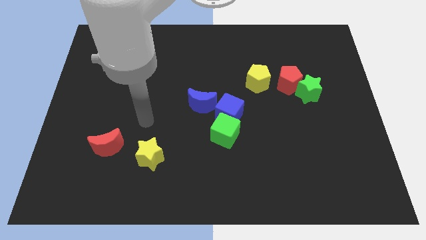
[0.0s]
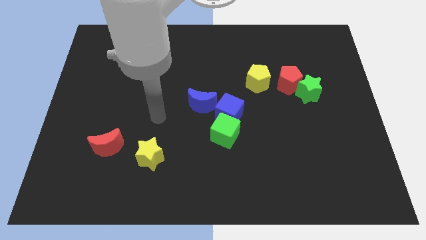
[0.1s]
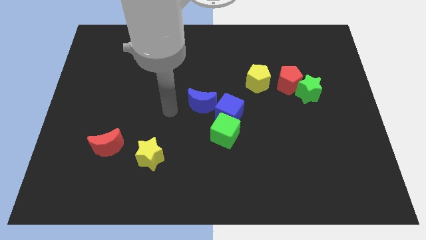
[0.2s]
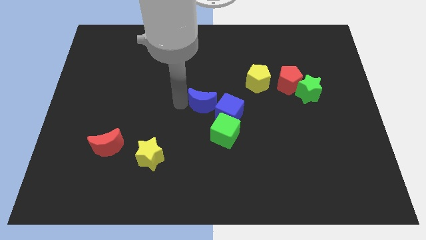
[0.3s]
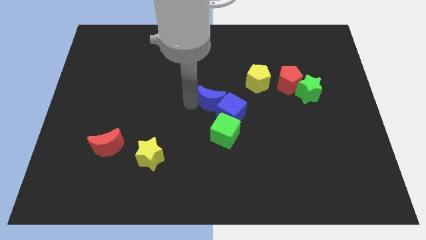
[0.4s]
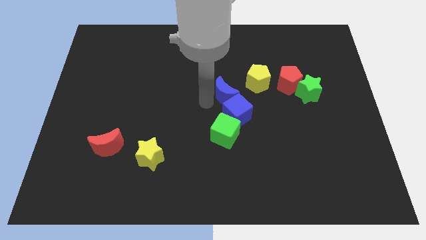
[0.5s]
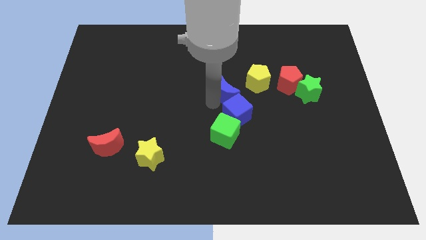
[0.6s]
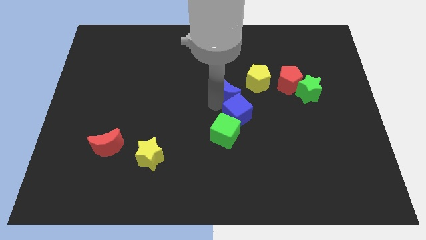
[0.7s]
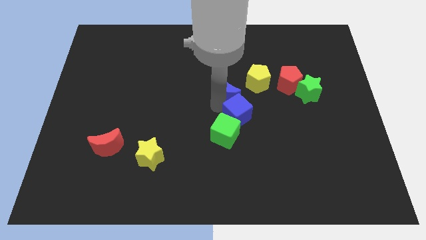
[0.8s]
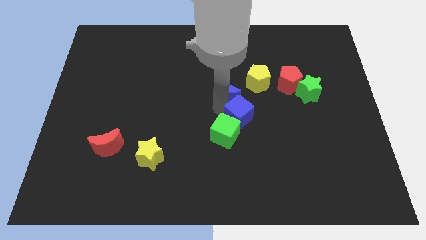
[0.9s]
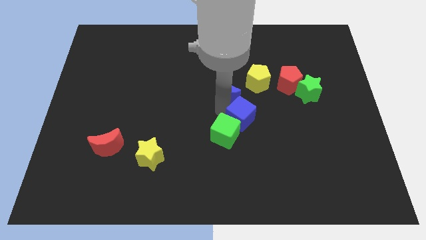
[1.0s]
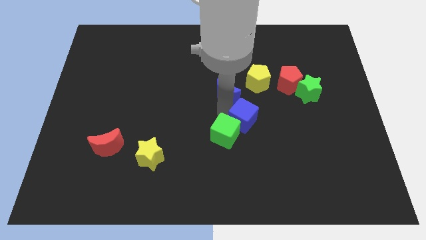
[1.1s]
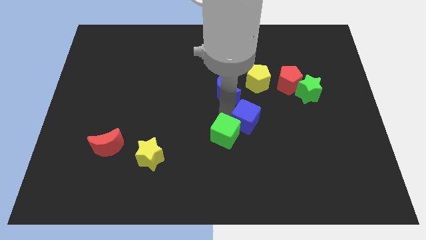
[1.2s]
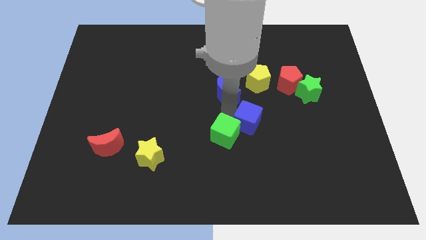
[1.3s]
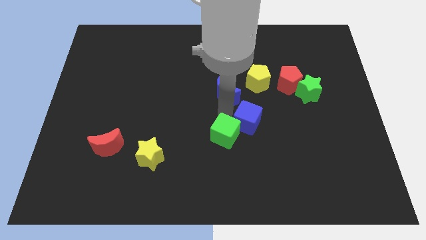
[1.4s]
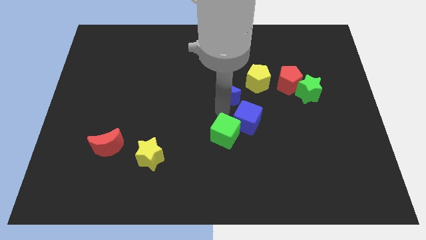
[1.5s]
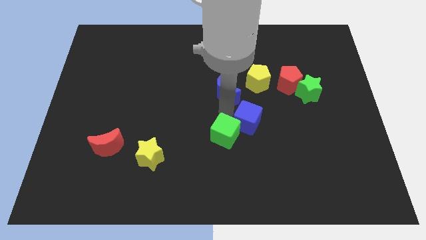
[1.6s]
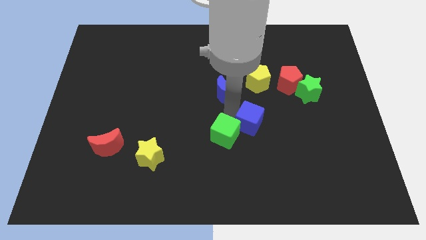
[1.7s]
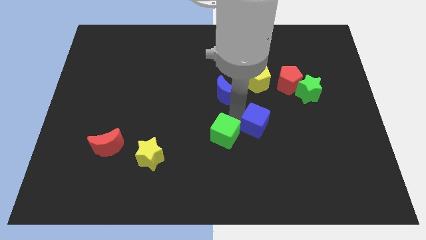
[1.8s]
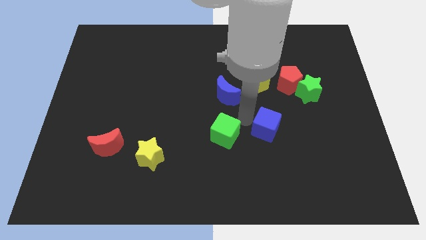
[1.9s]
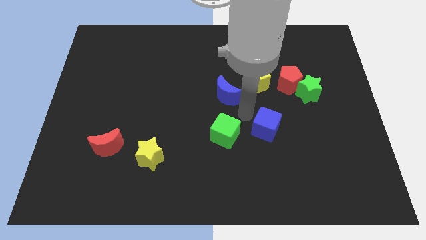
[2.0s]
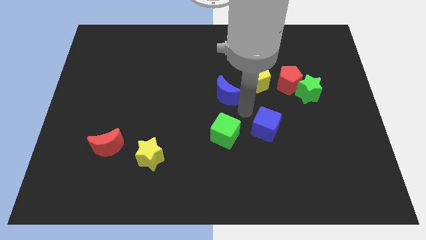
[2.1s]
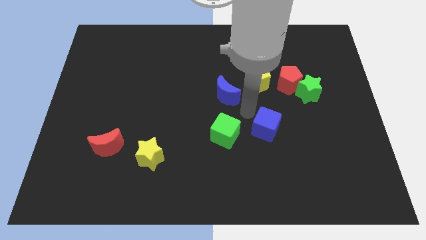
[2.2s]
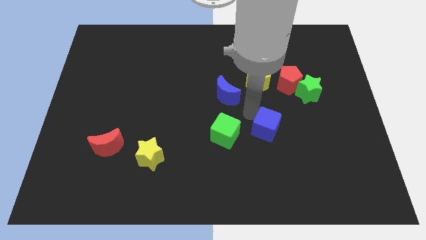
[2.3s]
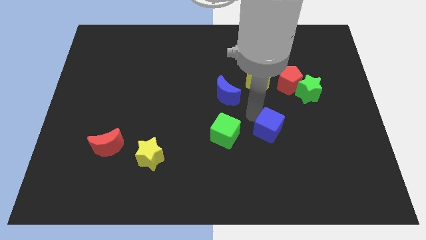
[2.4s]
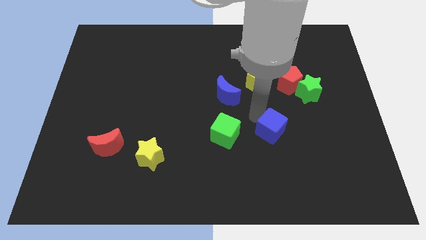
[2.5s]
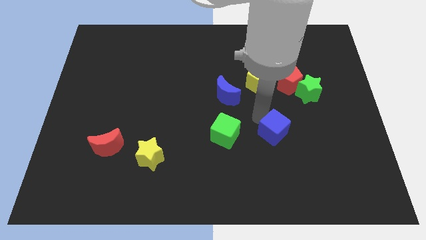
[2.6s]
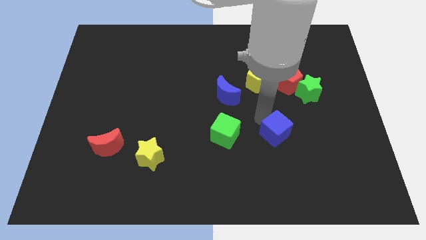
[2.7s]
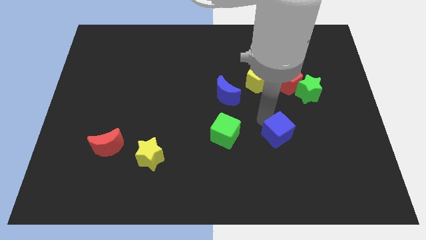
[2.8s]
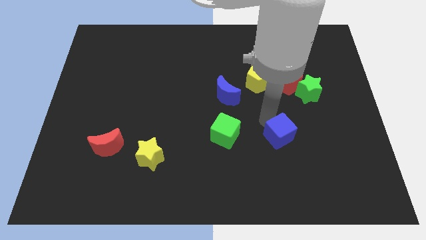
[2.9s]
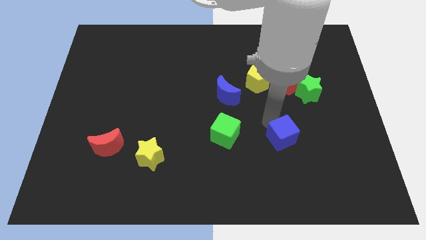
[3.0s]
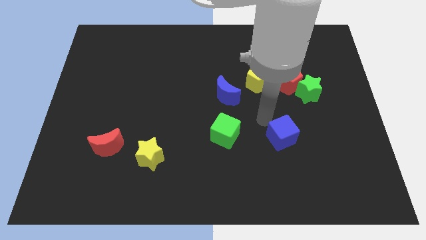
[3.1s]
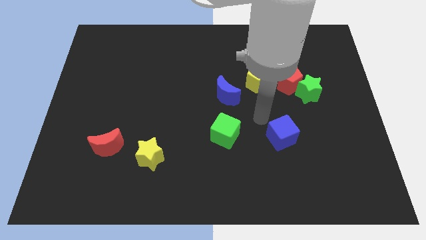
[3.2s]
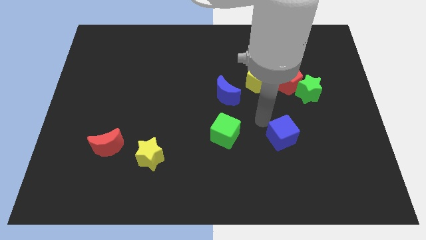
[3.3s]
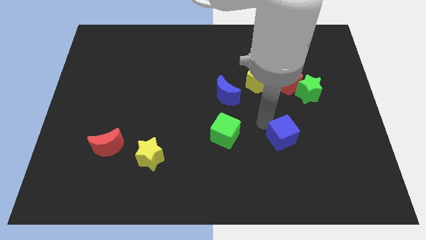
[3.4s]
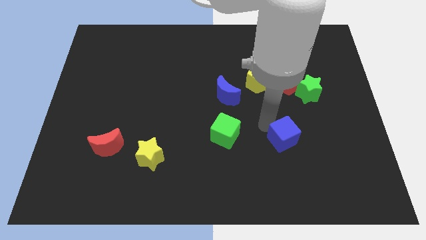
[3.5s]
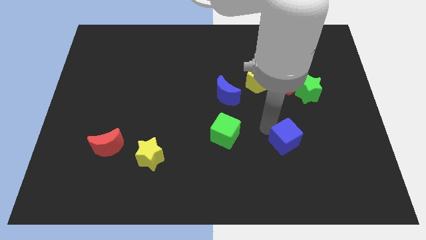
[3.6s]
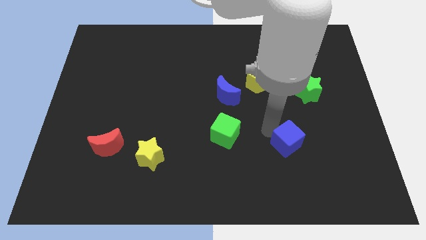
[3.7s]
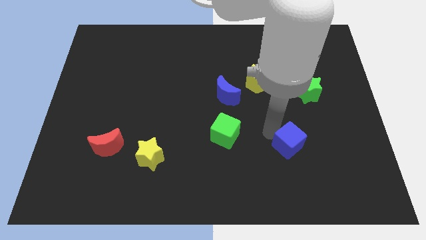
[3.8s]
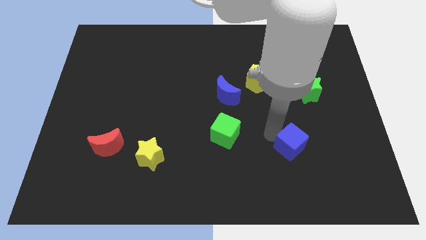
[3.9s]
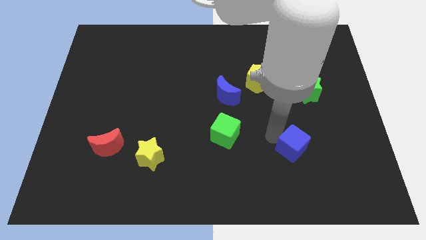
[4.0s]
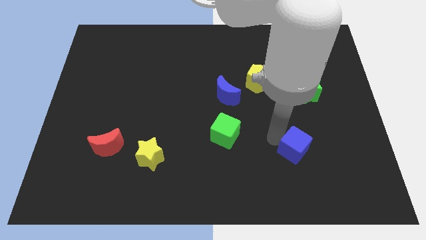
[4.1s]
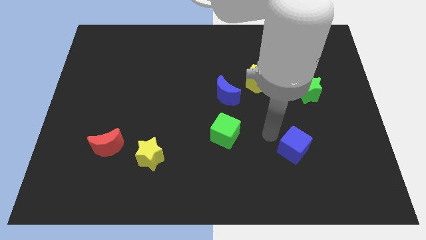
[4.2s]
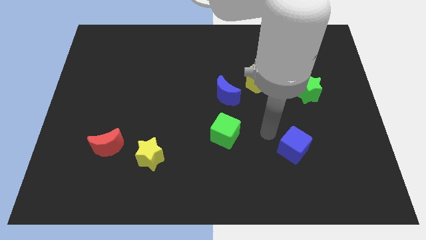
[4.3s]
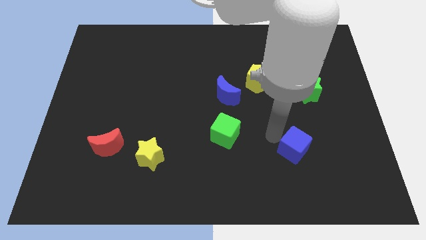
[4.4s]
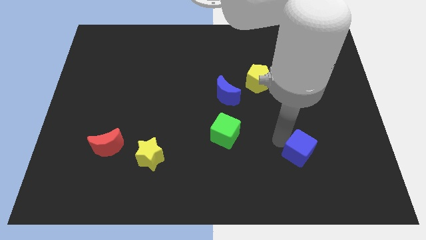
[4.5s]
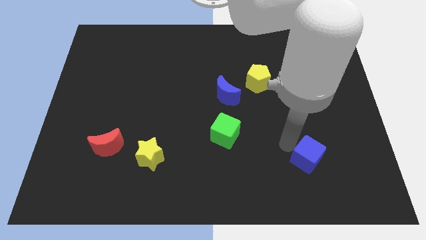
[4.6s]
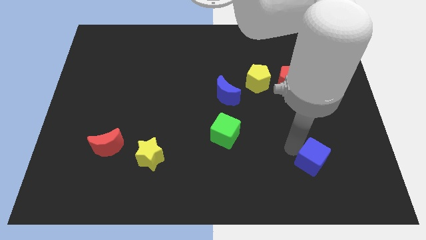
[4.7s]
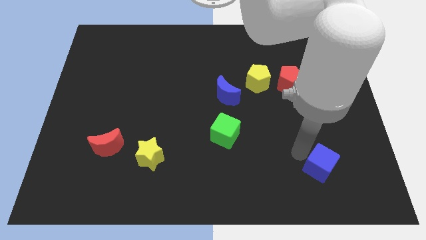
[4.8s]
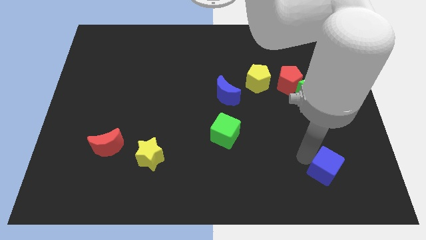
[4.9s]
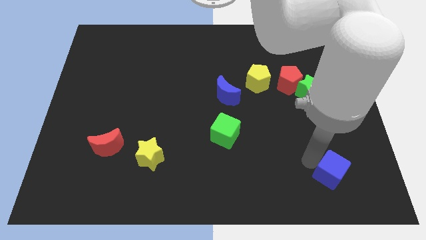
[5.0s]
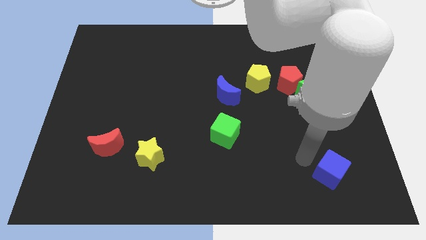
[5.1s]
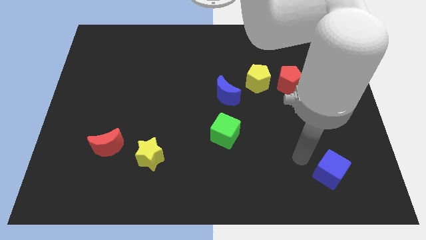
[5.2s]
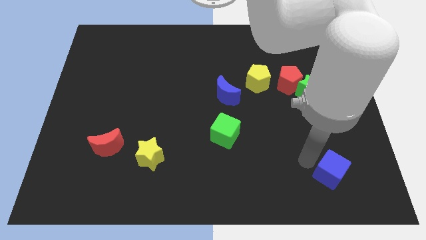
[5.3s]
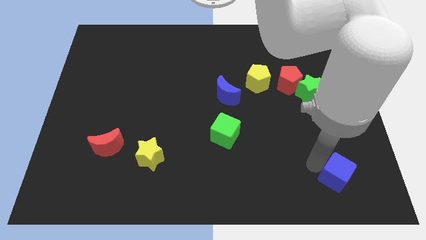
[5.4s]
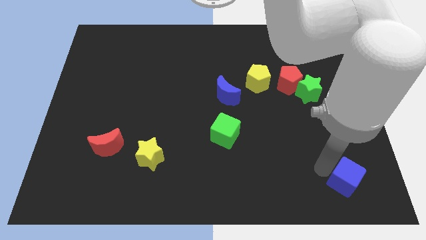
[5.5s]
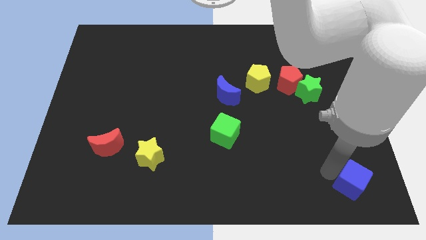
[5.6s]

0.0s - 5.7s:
slide the blue cube to the bottom right of the board

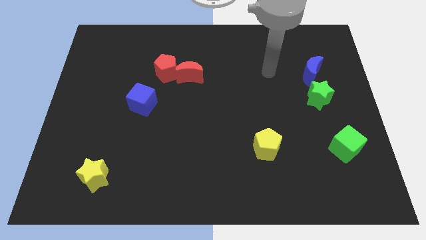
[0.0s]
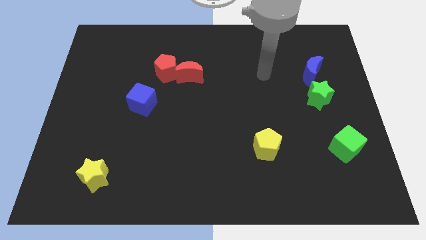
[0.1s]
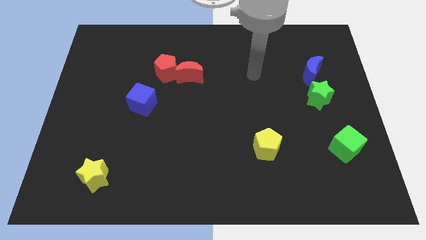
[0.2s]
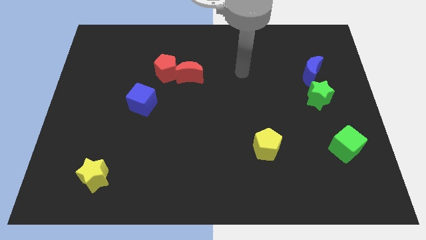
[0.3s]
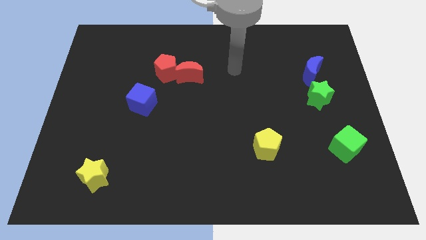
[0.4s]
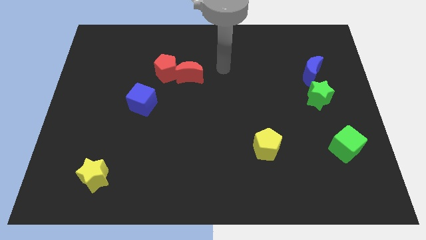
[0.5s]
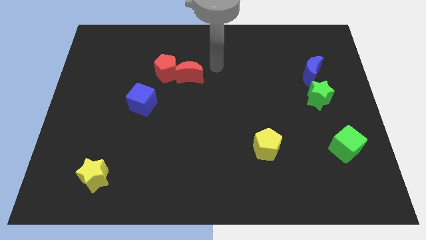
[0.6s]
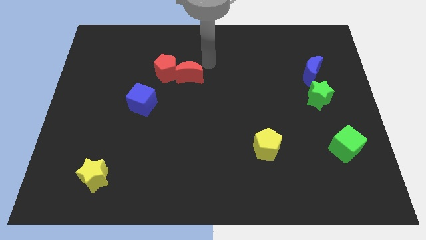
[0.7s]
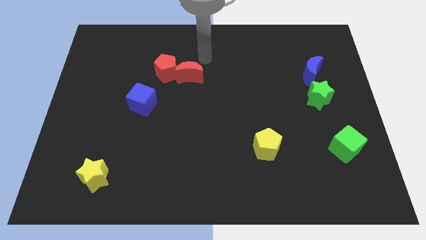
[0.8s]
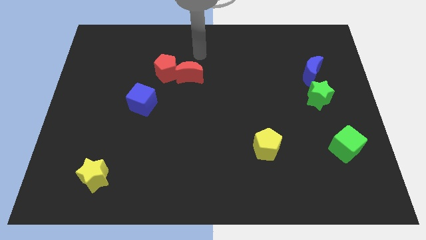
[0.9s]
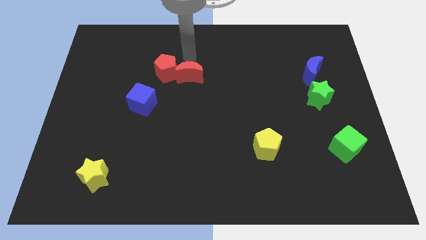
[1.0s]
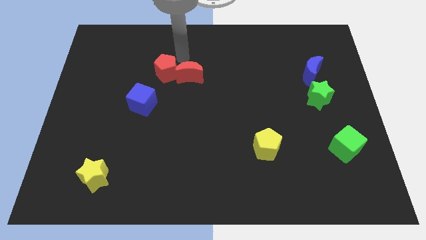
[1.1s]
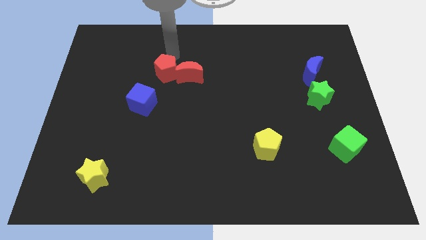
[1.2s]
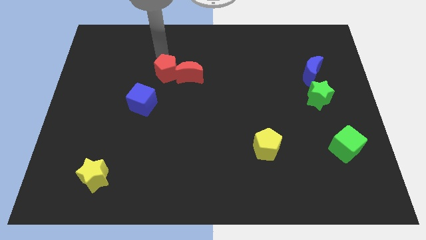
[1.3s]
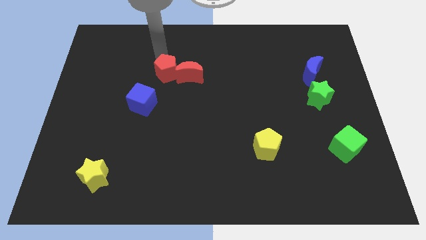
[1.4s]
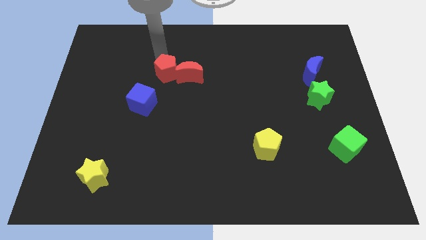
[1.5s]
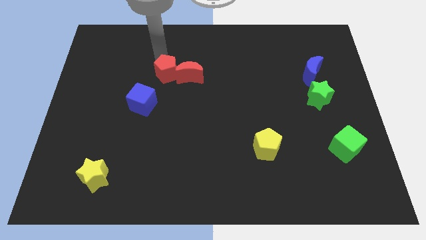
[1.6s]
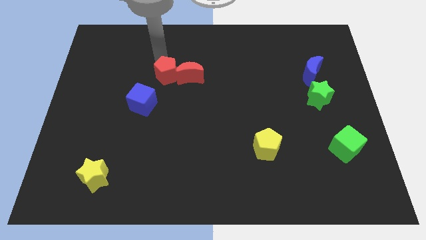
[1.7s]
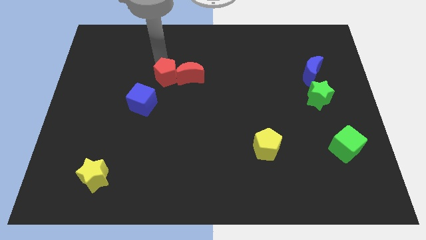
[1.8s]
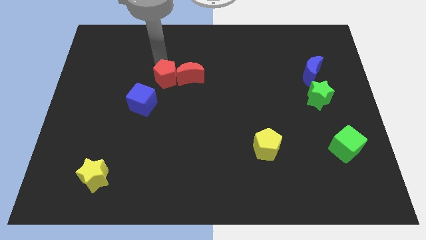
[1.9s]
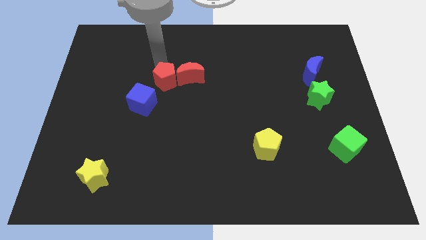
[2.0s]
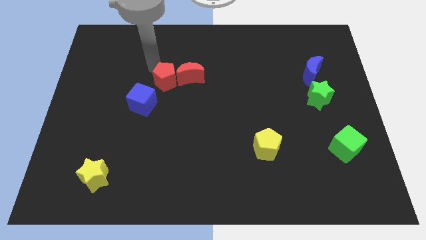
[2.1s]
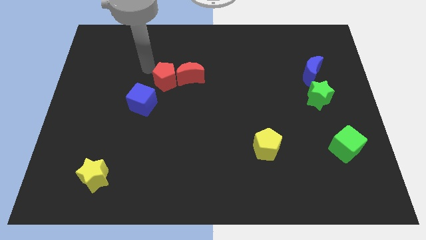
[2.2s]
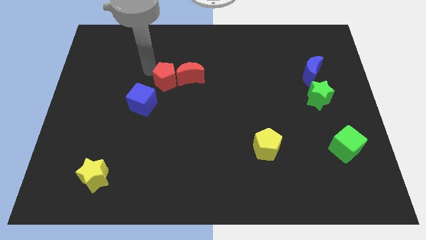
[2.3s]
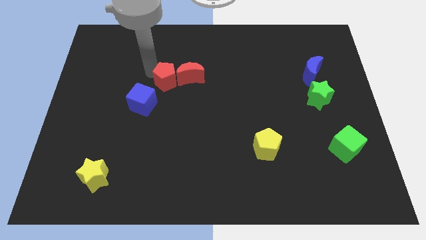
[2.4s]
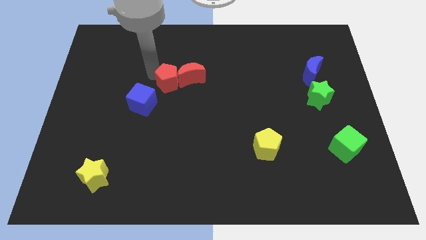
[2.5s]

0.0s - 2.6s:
slide the red pentagon to the center

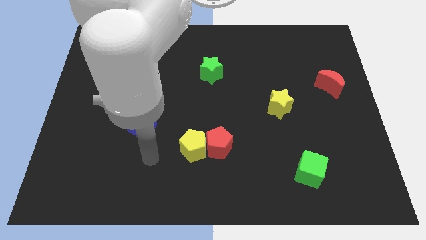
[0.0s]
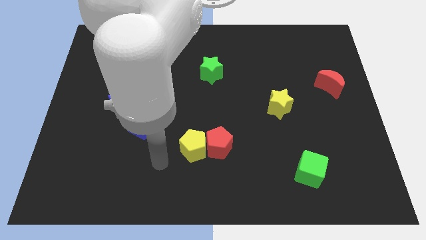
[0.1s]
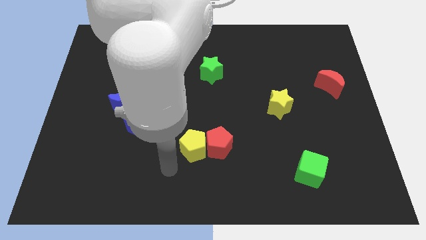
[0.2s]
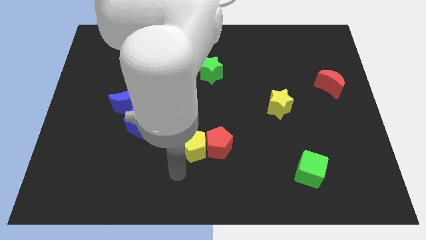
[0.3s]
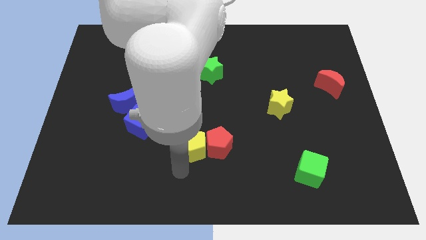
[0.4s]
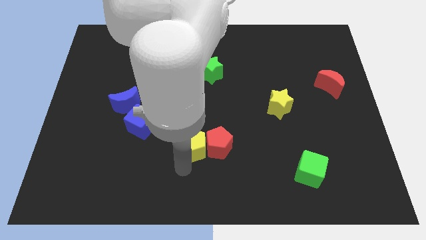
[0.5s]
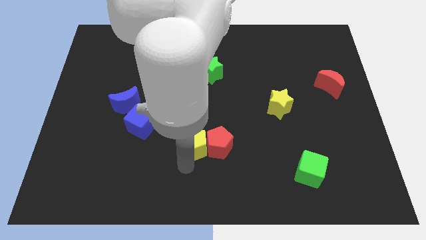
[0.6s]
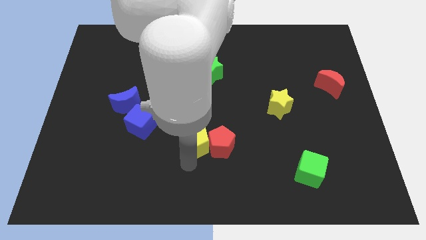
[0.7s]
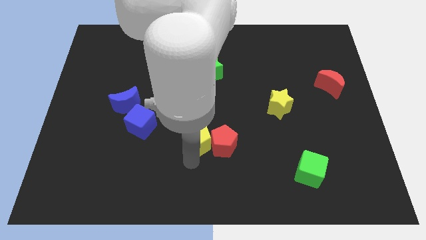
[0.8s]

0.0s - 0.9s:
push the yellow pentagon to the middle of the board
